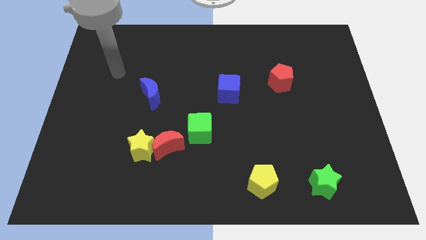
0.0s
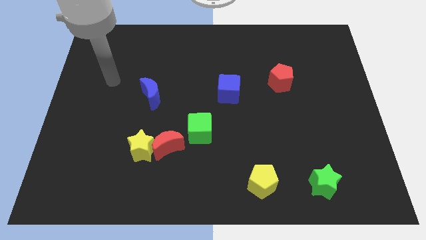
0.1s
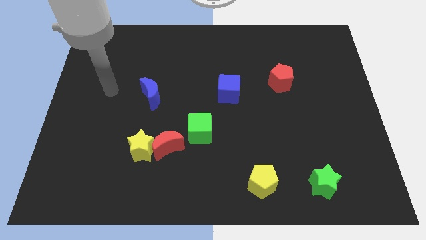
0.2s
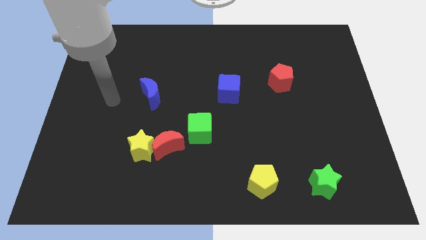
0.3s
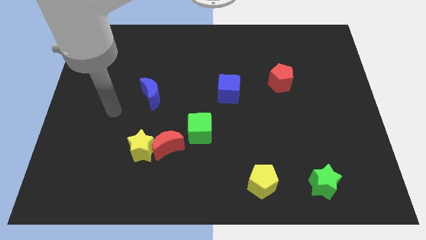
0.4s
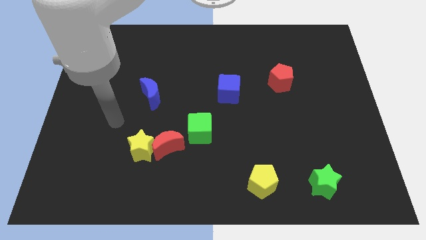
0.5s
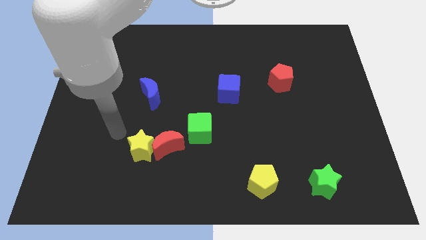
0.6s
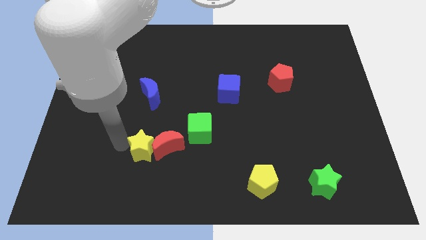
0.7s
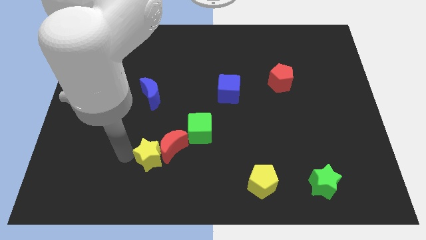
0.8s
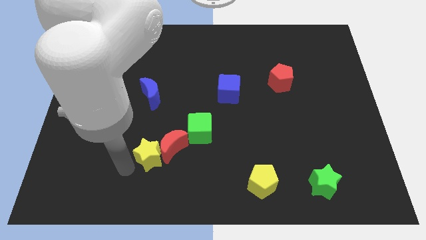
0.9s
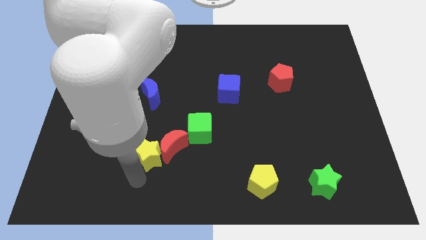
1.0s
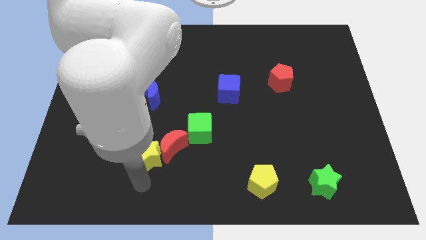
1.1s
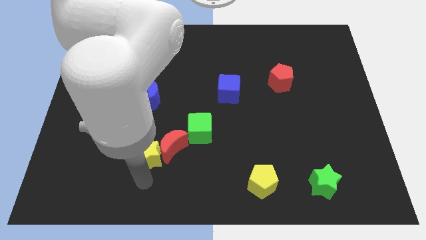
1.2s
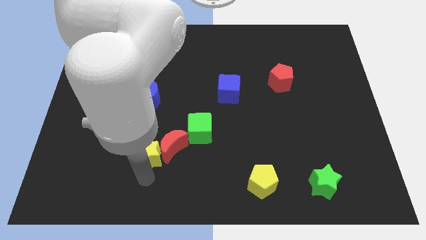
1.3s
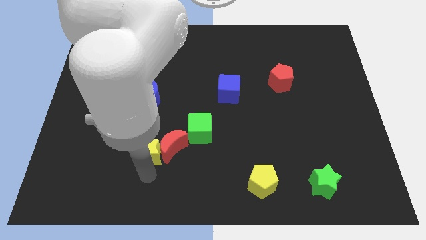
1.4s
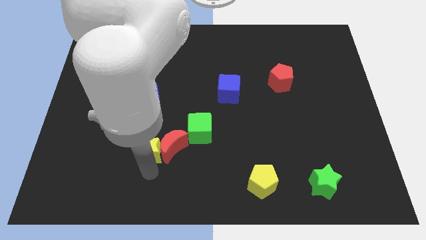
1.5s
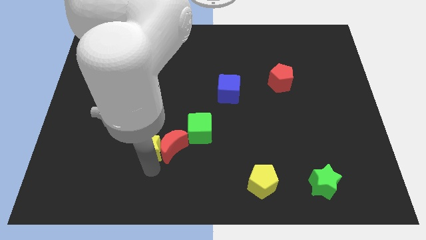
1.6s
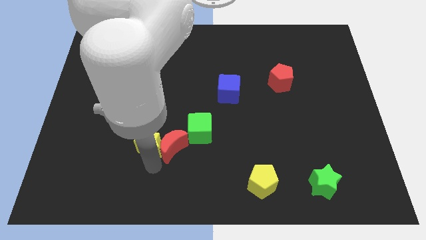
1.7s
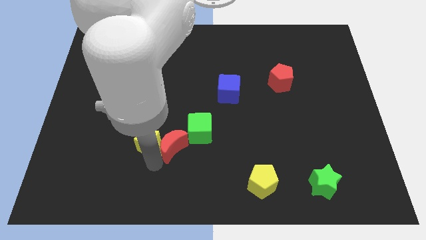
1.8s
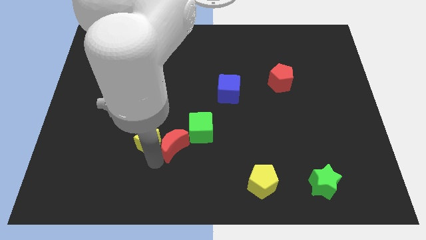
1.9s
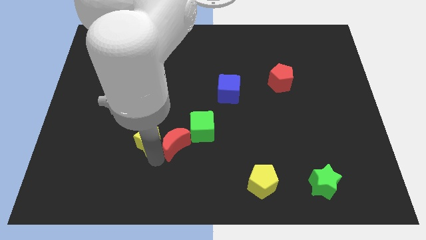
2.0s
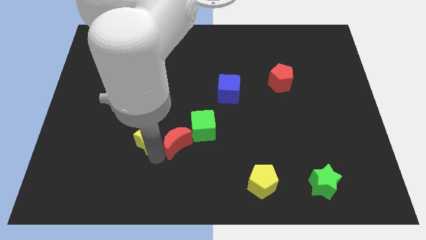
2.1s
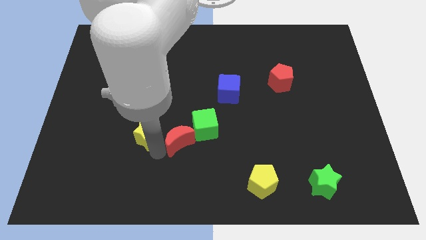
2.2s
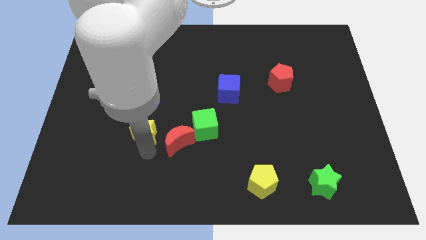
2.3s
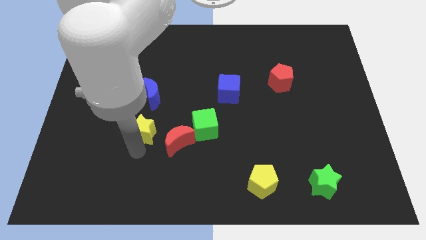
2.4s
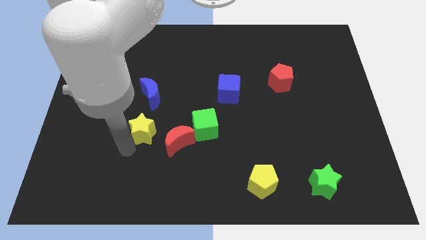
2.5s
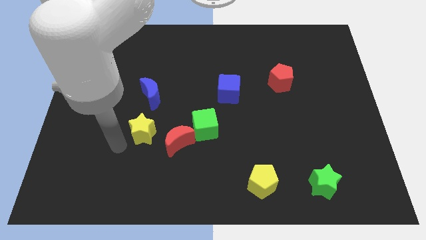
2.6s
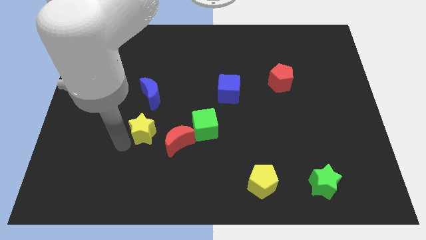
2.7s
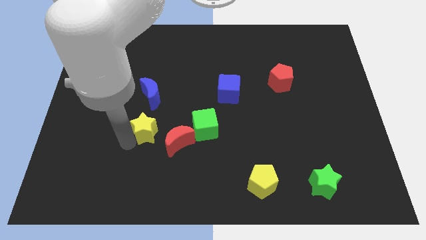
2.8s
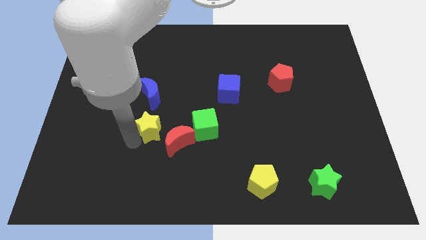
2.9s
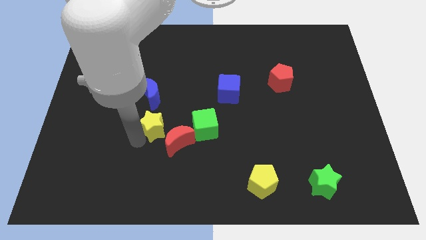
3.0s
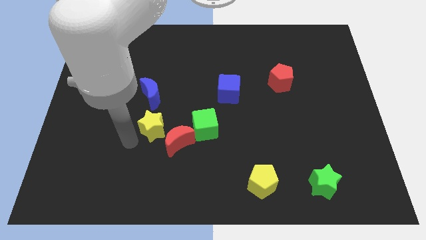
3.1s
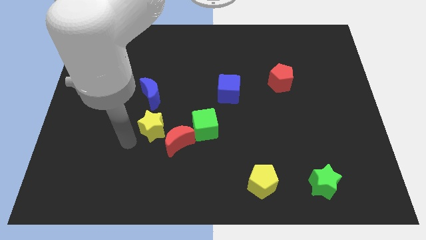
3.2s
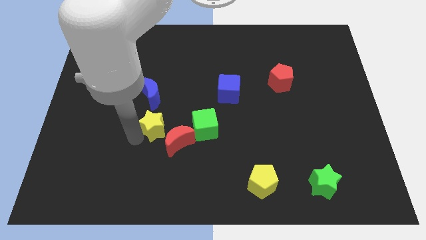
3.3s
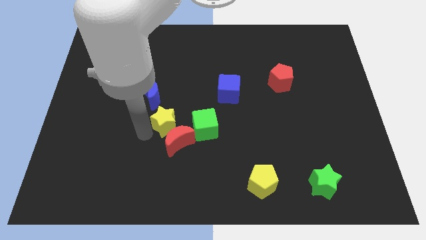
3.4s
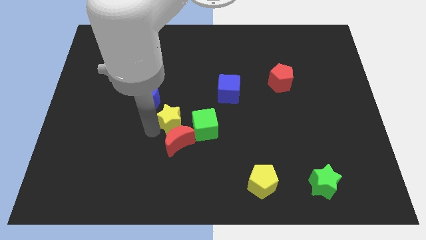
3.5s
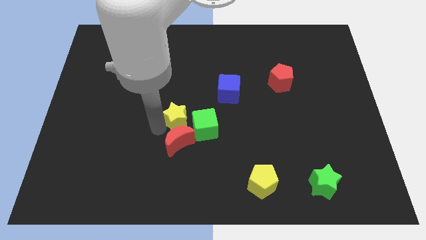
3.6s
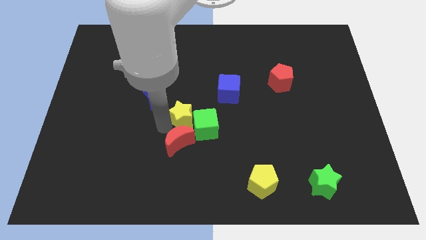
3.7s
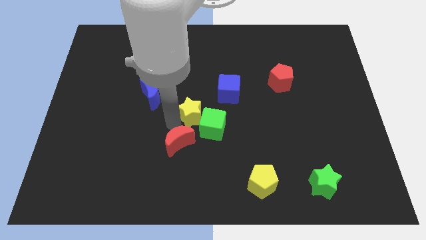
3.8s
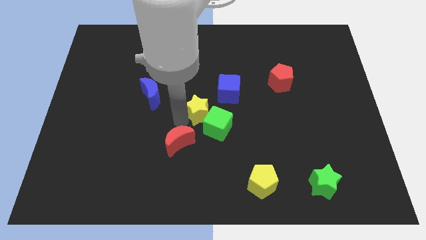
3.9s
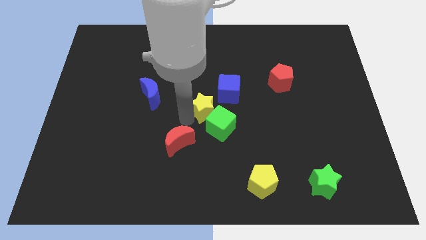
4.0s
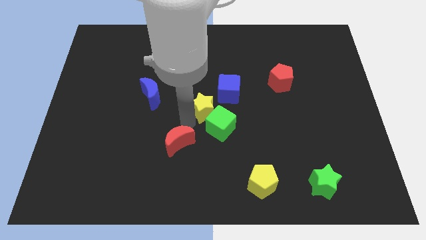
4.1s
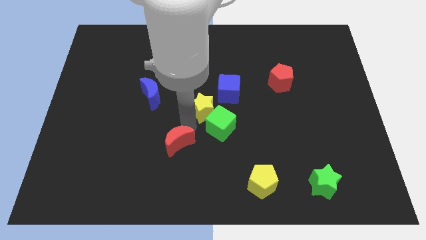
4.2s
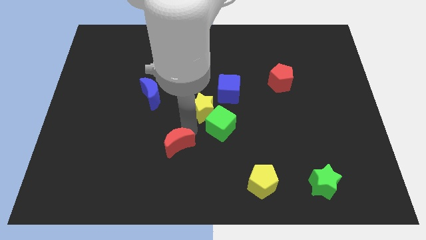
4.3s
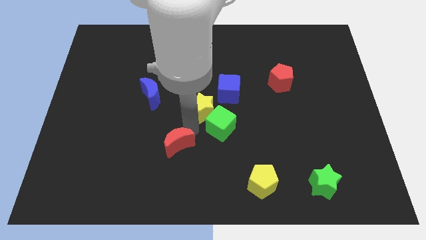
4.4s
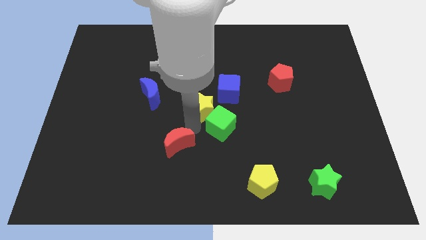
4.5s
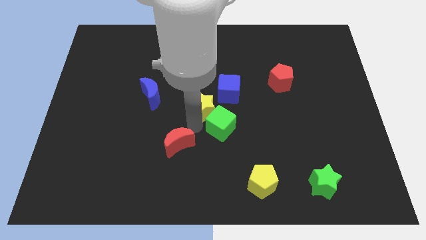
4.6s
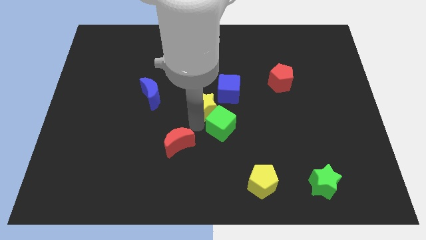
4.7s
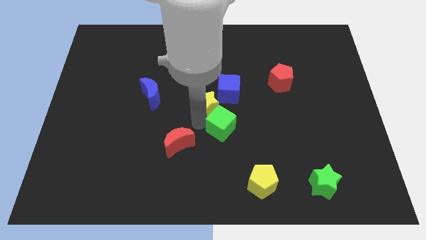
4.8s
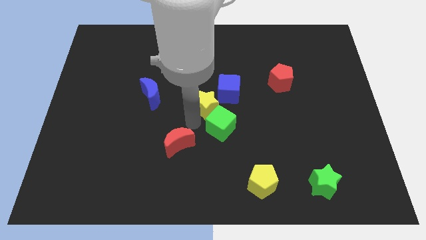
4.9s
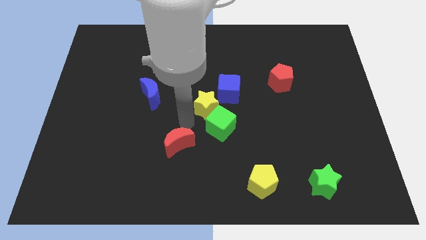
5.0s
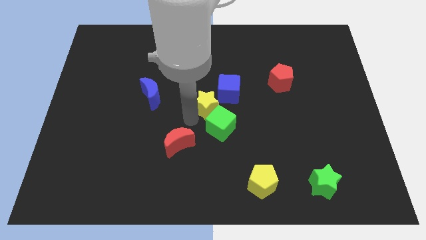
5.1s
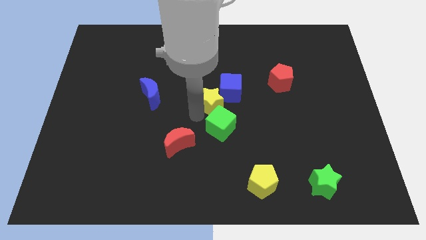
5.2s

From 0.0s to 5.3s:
slide the yellow star towards the blue cube

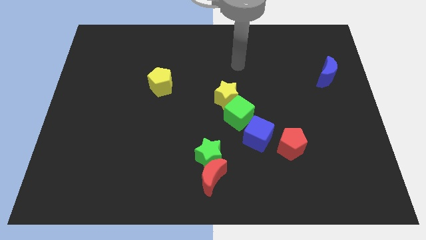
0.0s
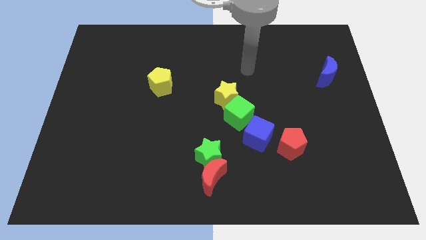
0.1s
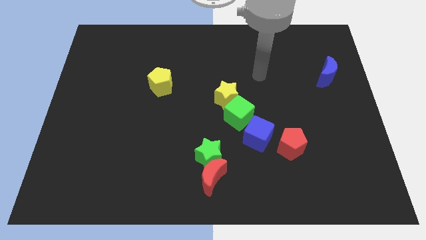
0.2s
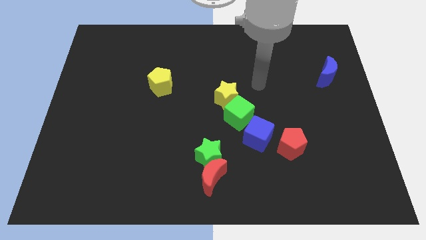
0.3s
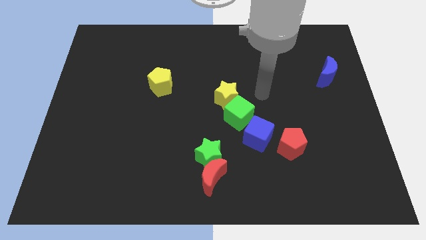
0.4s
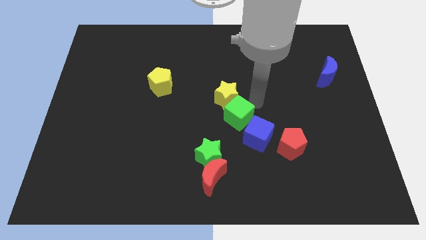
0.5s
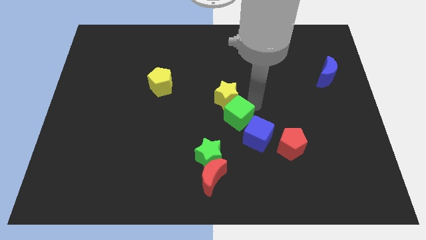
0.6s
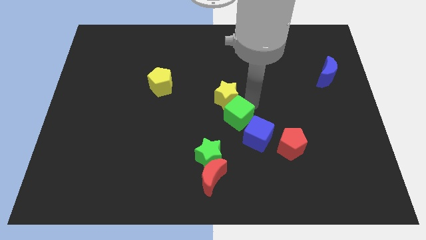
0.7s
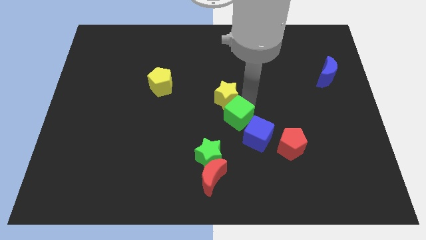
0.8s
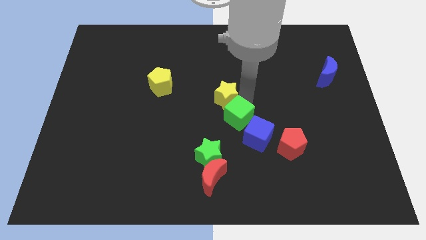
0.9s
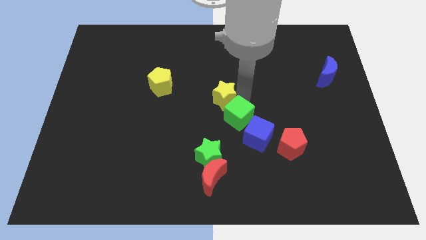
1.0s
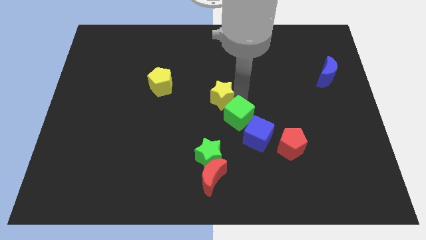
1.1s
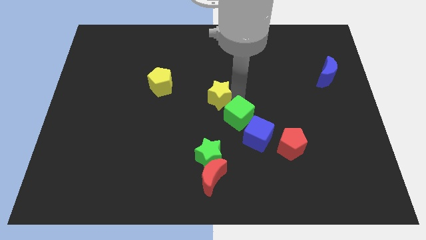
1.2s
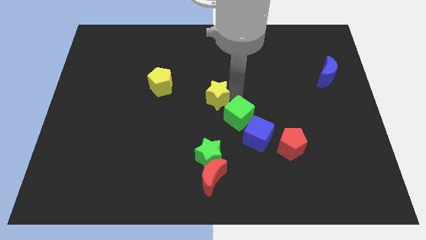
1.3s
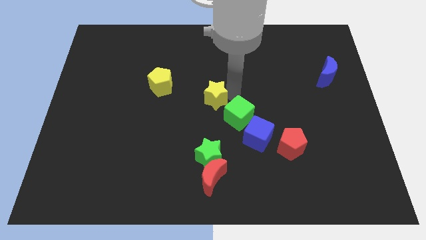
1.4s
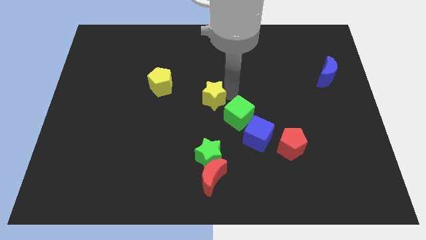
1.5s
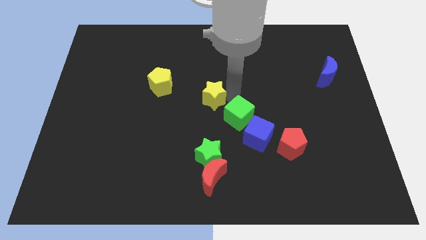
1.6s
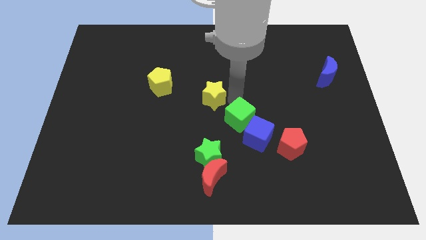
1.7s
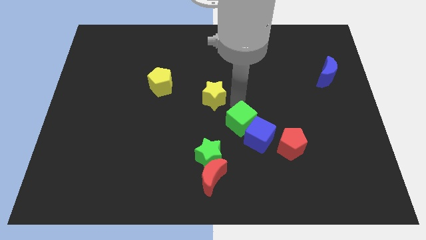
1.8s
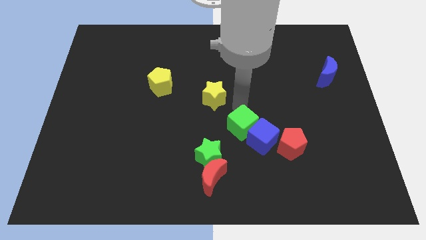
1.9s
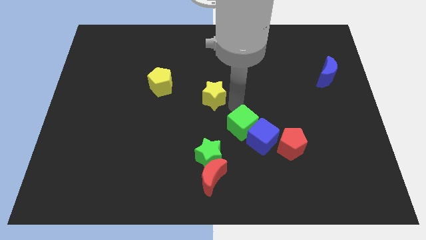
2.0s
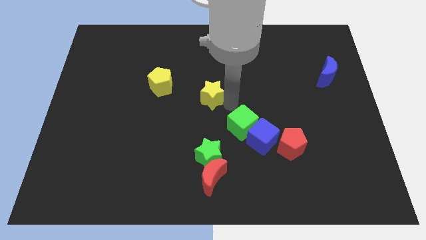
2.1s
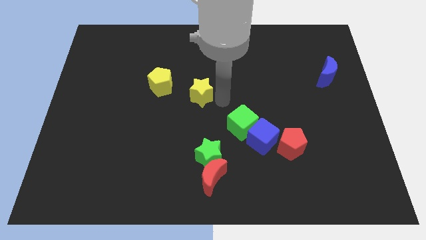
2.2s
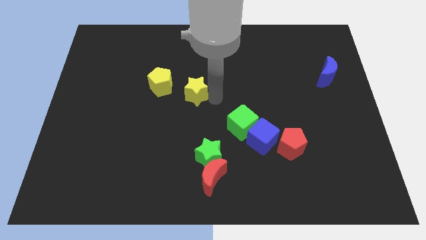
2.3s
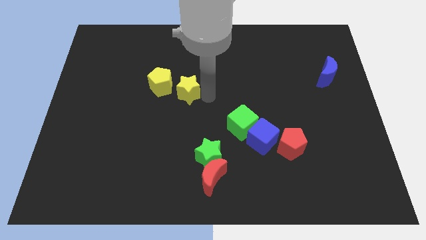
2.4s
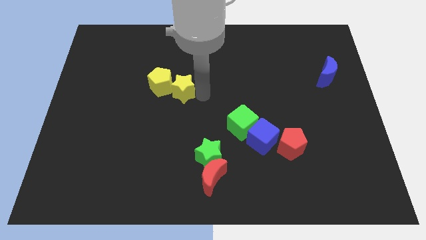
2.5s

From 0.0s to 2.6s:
put the yellow star close to the yellow pentagon
